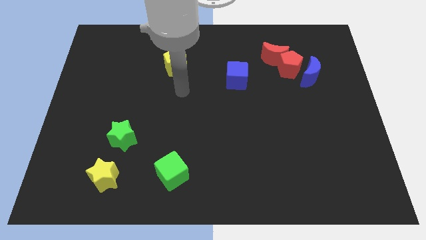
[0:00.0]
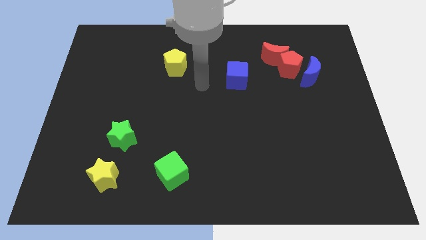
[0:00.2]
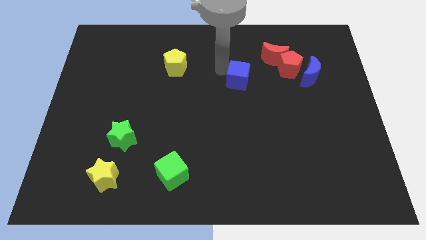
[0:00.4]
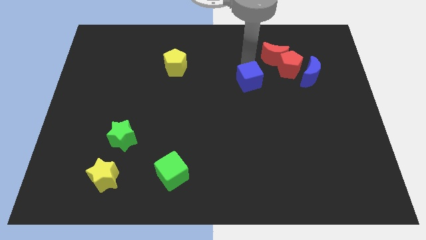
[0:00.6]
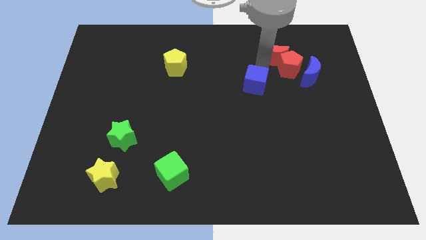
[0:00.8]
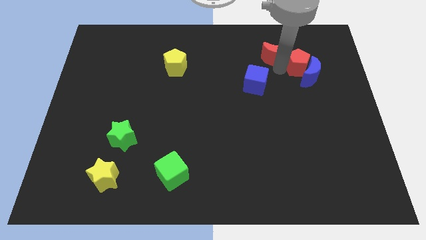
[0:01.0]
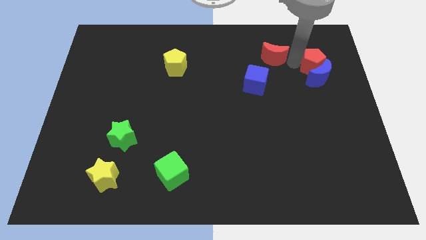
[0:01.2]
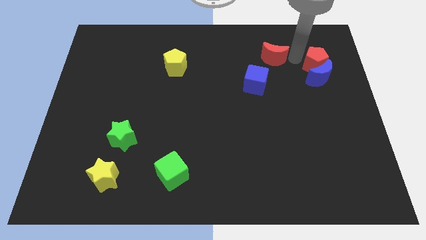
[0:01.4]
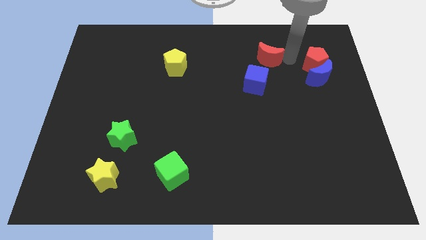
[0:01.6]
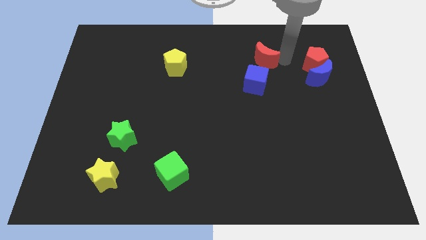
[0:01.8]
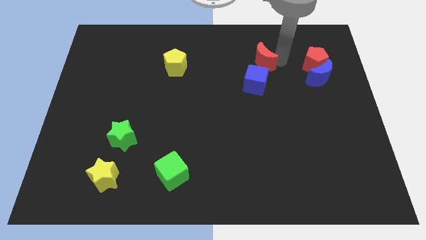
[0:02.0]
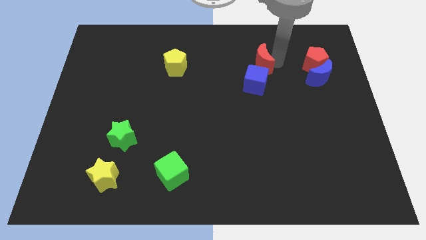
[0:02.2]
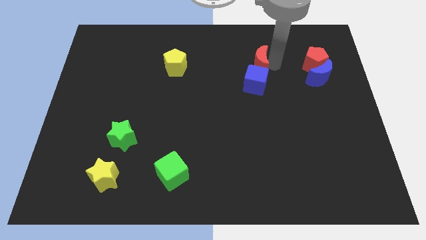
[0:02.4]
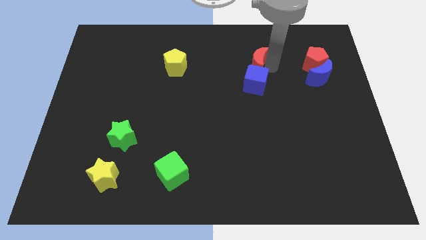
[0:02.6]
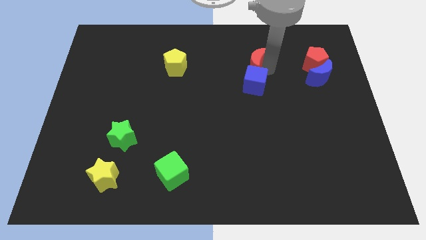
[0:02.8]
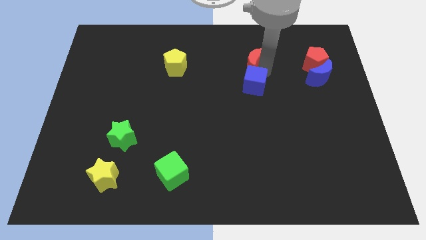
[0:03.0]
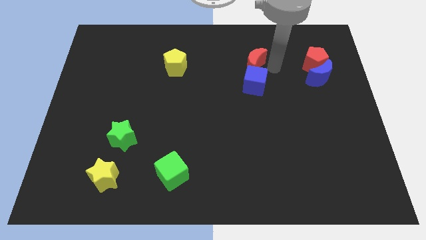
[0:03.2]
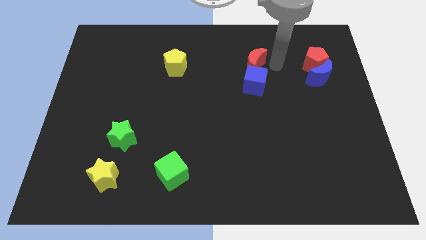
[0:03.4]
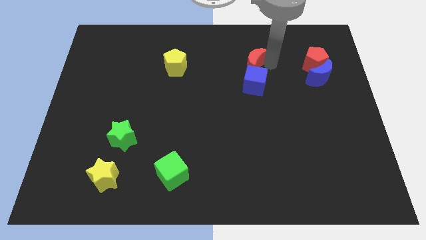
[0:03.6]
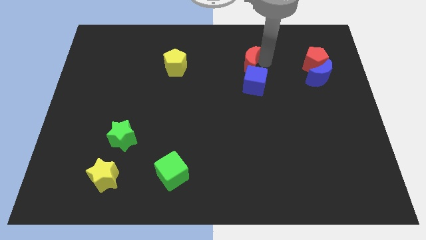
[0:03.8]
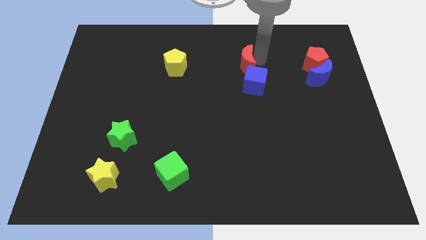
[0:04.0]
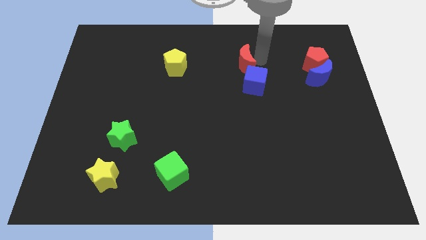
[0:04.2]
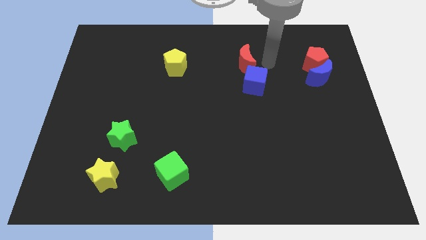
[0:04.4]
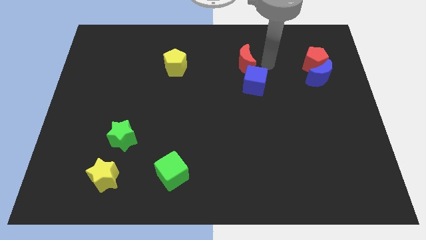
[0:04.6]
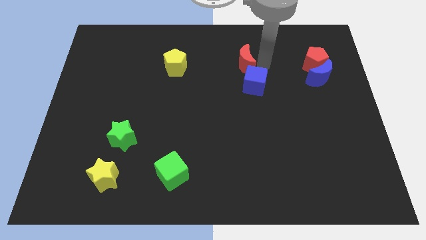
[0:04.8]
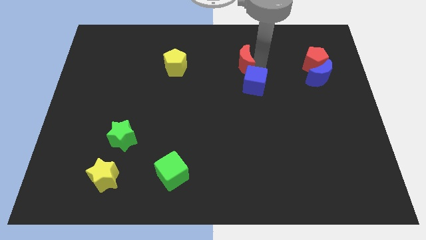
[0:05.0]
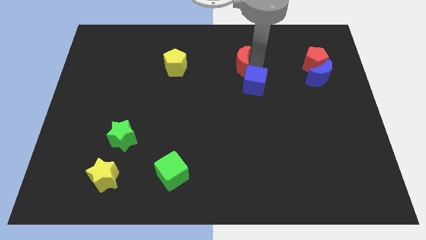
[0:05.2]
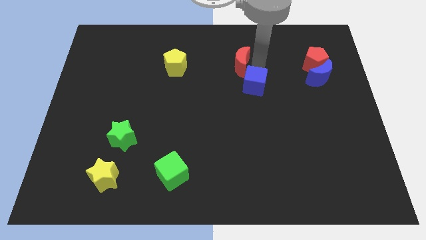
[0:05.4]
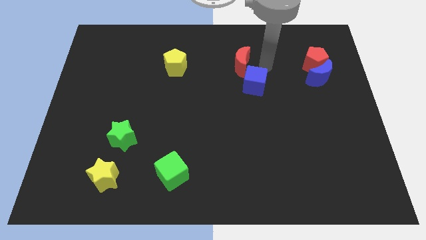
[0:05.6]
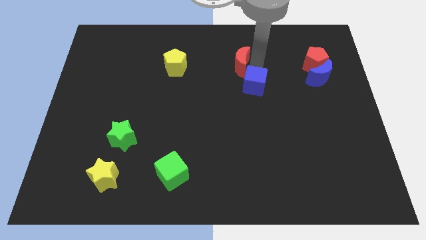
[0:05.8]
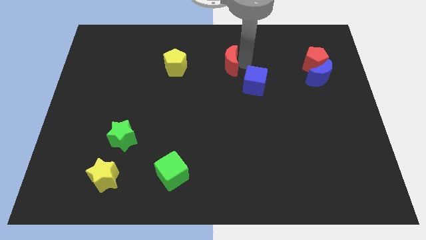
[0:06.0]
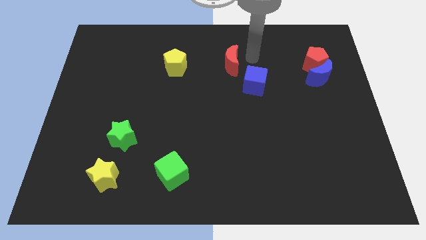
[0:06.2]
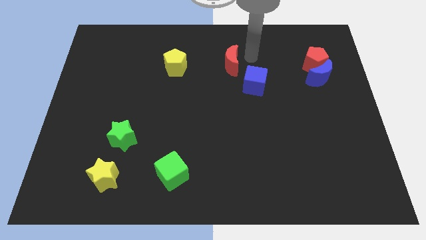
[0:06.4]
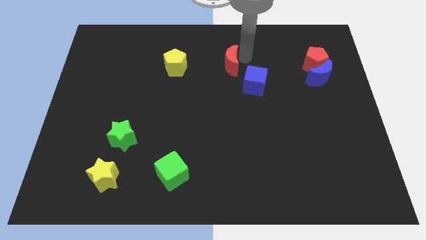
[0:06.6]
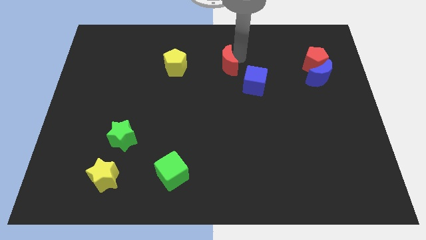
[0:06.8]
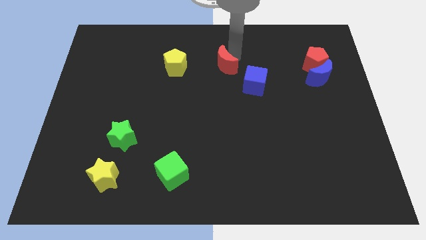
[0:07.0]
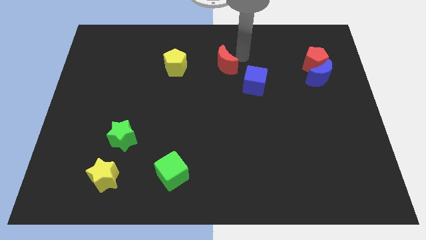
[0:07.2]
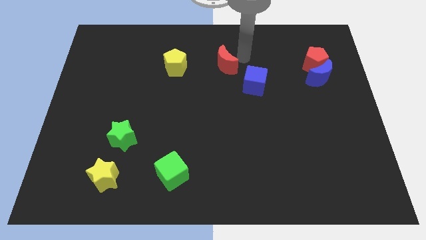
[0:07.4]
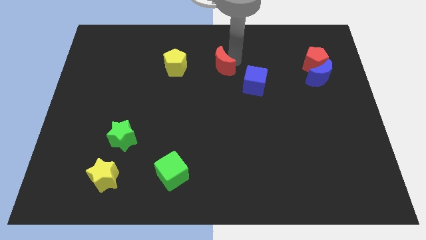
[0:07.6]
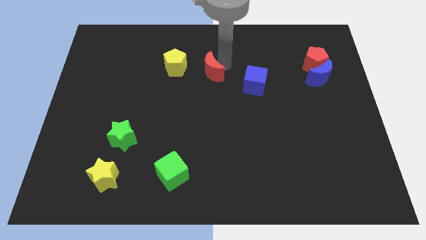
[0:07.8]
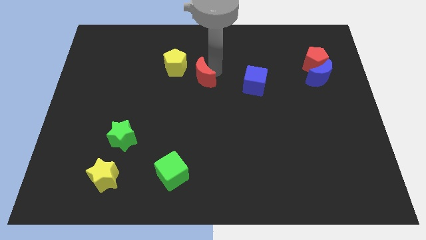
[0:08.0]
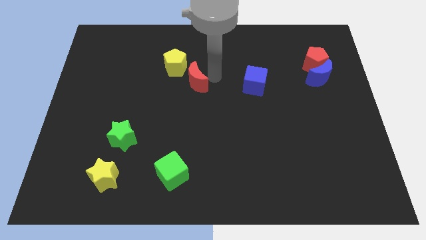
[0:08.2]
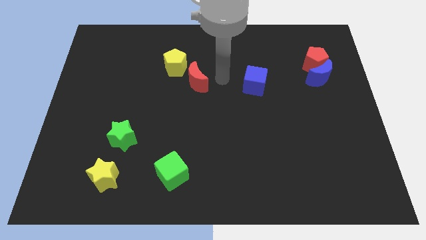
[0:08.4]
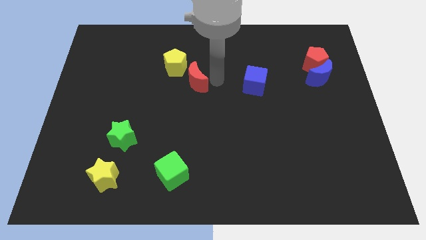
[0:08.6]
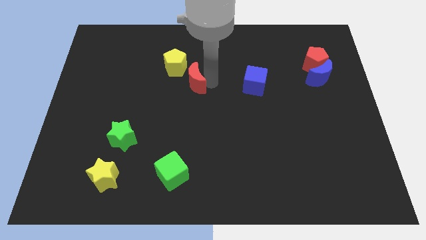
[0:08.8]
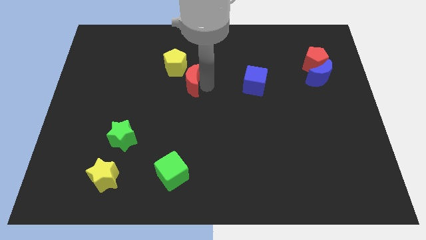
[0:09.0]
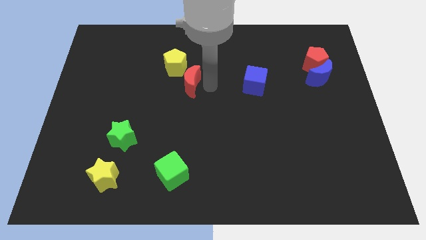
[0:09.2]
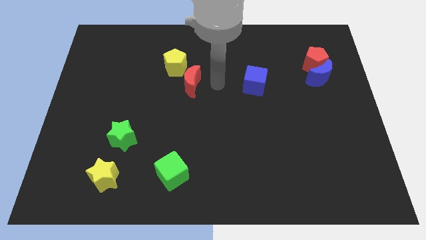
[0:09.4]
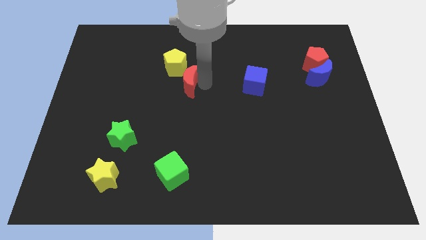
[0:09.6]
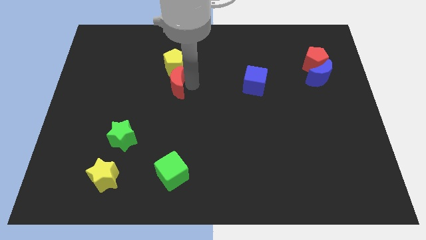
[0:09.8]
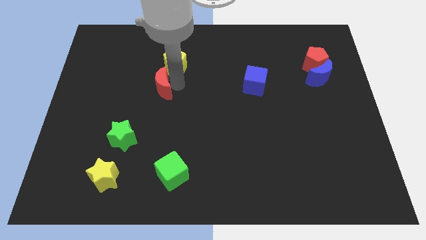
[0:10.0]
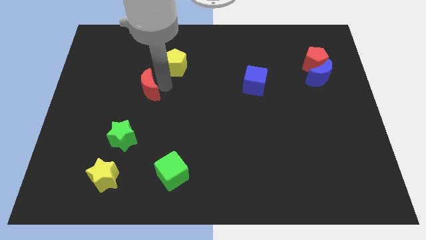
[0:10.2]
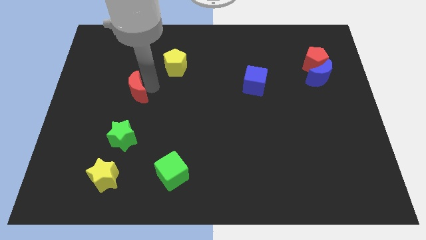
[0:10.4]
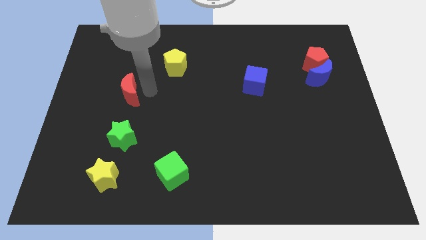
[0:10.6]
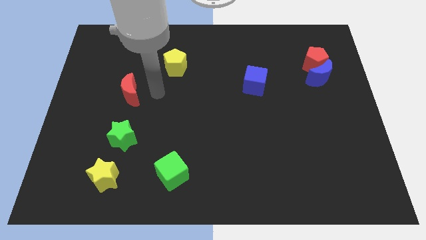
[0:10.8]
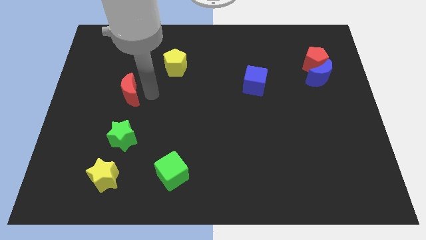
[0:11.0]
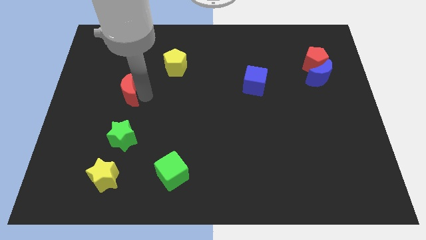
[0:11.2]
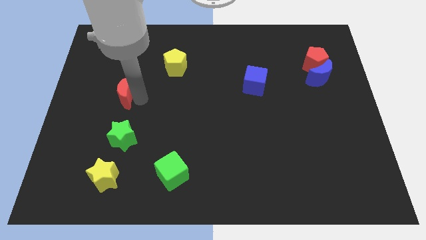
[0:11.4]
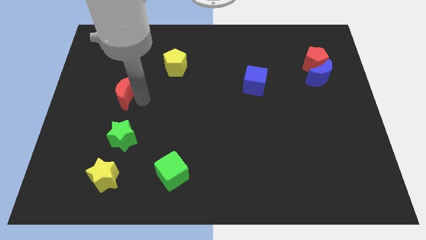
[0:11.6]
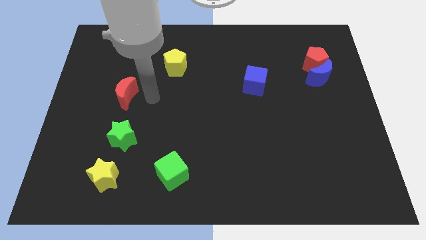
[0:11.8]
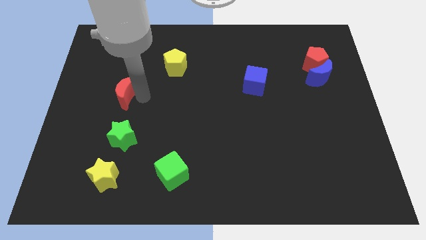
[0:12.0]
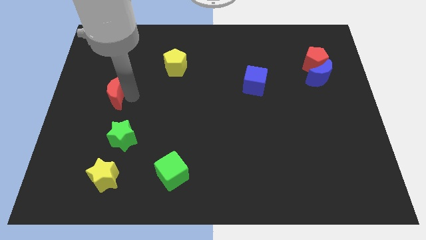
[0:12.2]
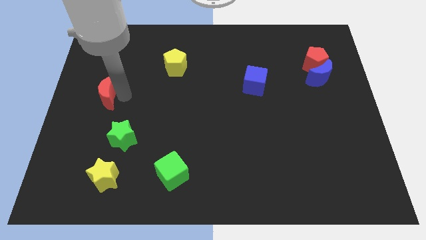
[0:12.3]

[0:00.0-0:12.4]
push the red moon to the left side
